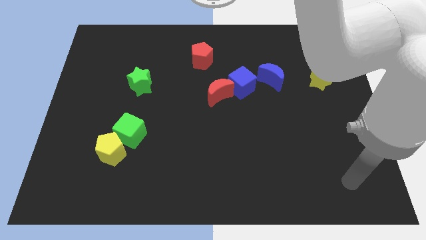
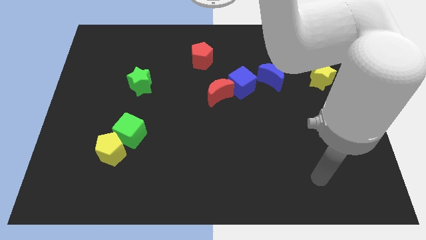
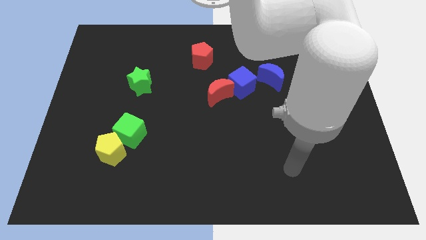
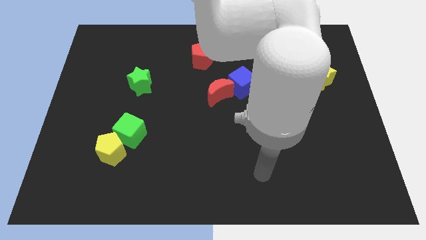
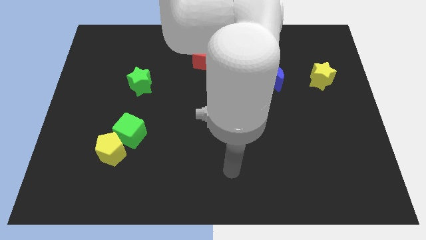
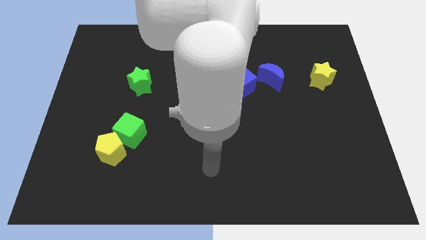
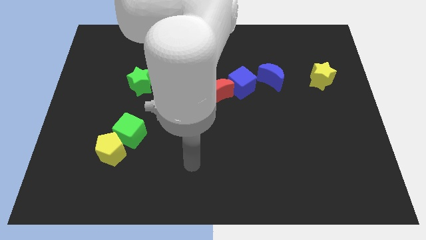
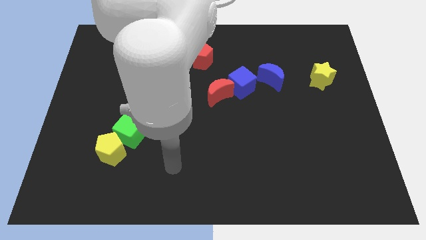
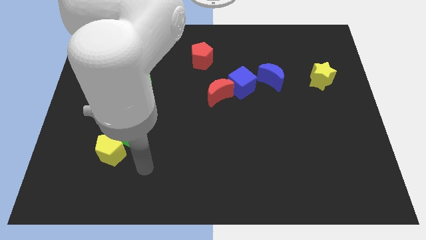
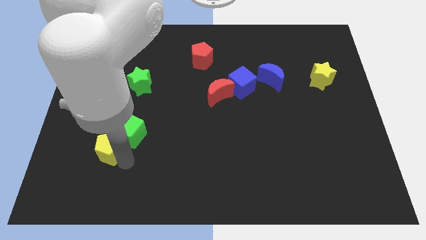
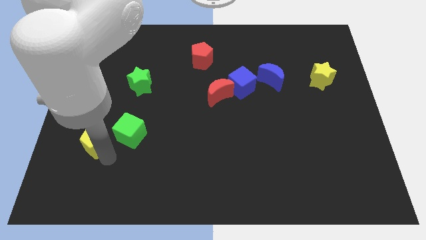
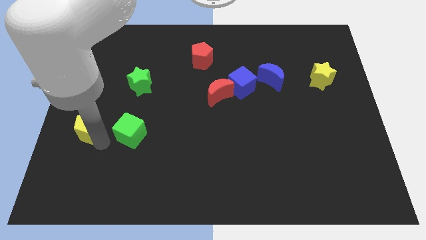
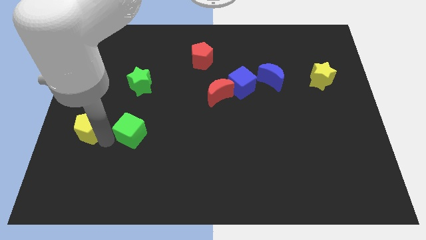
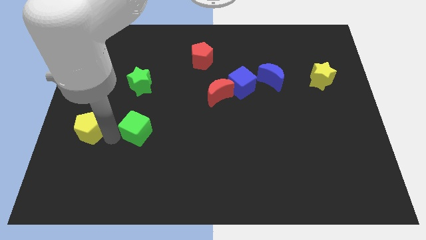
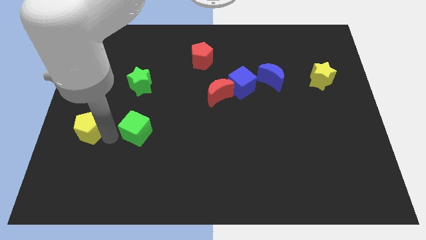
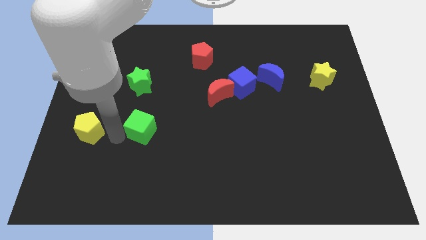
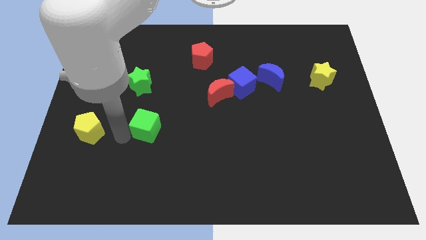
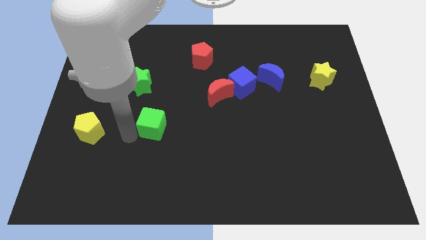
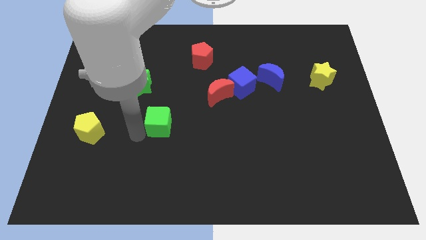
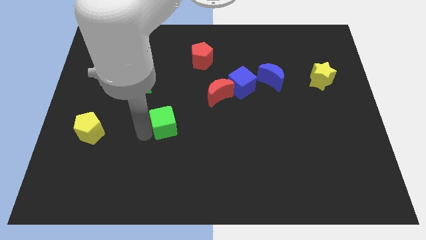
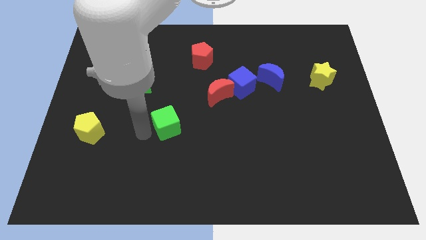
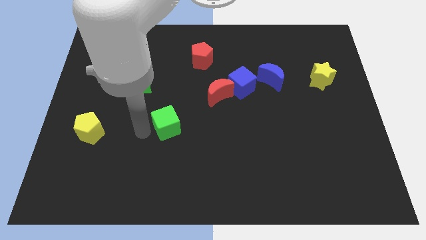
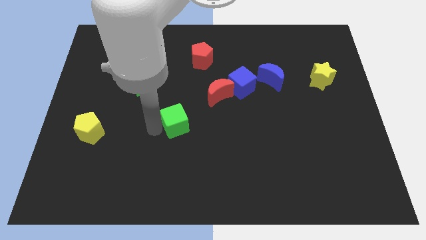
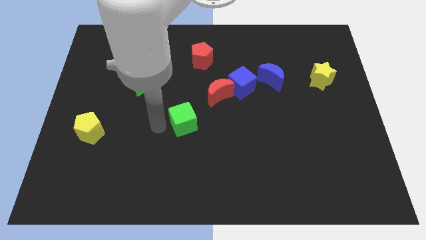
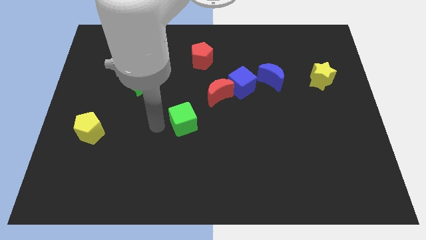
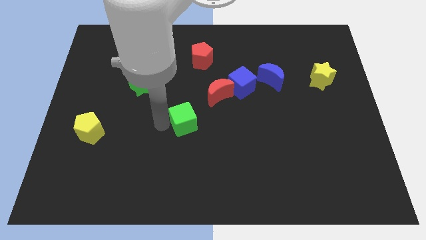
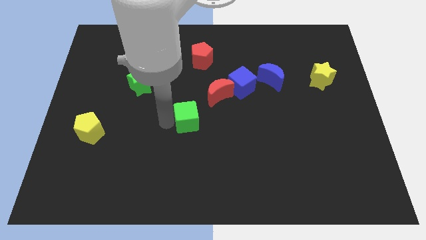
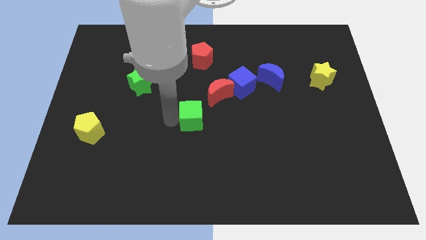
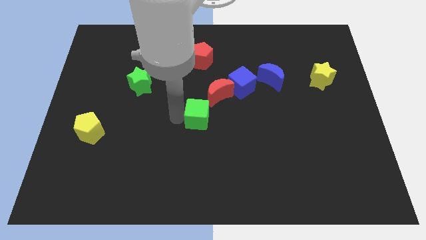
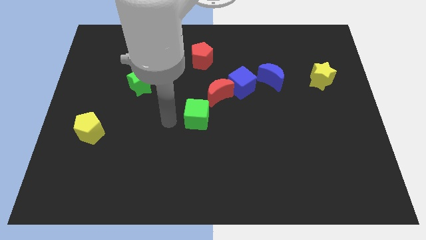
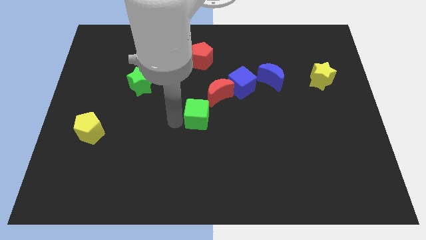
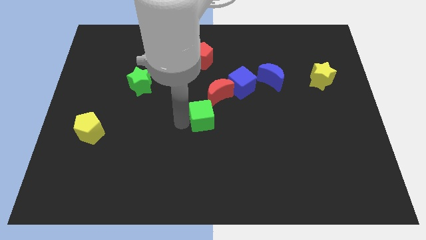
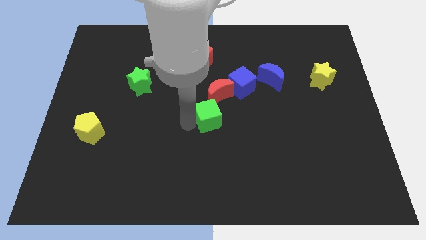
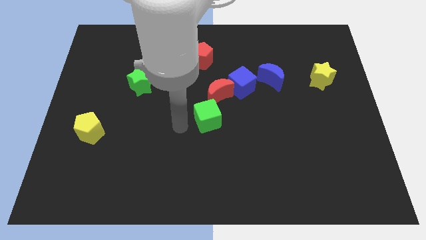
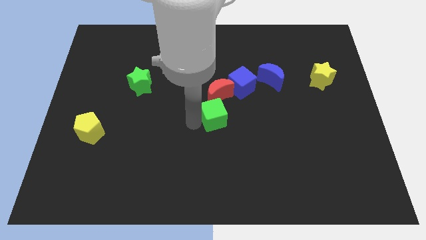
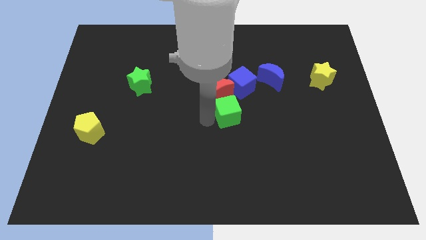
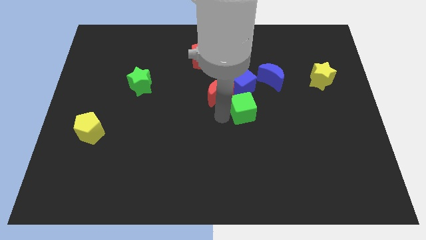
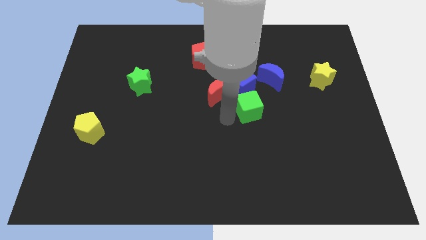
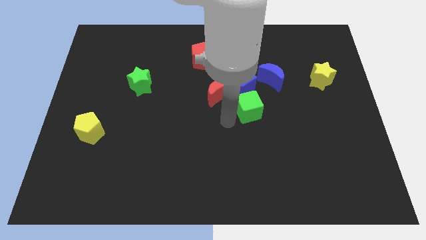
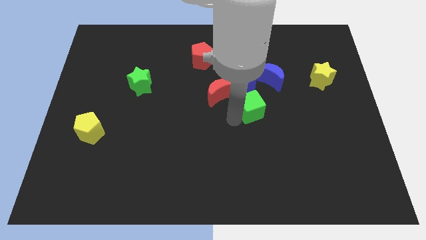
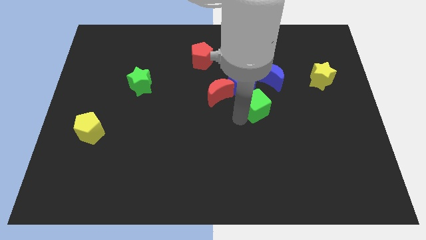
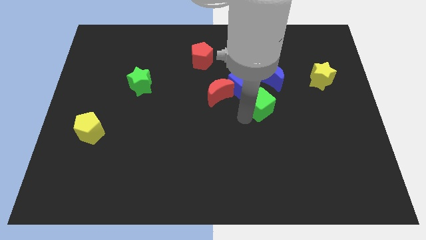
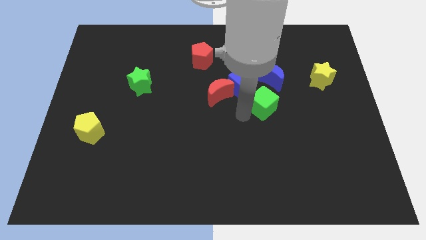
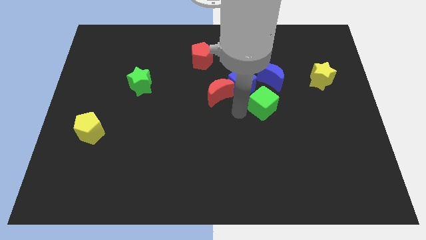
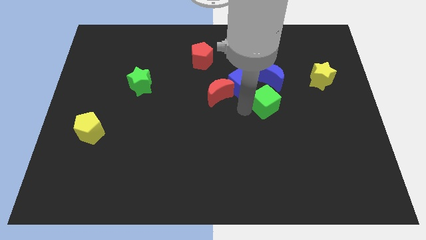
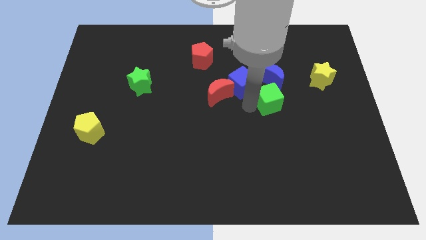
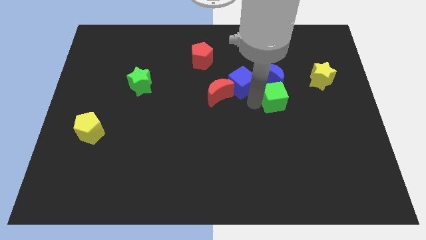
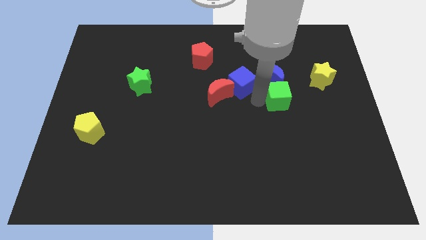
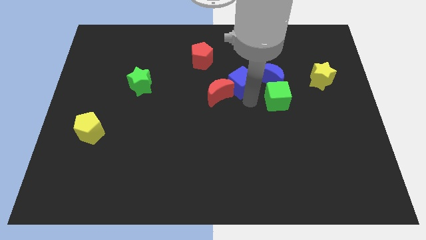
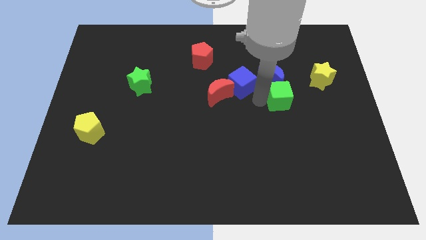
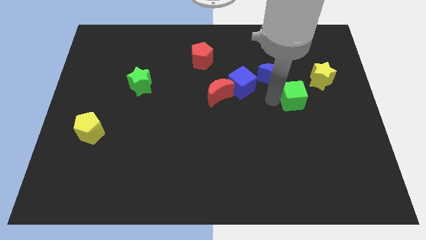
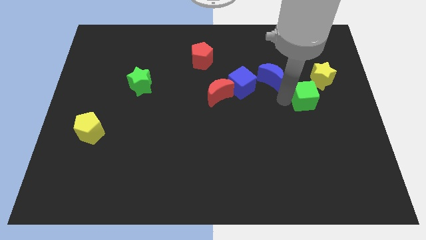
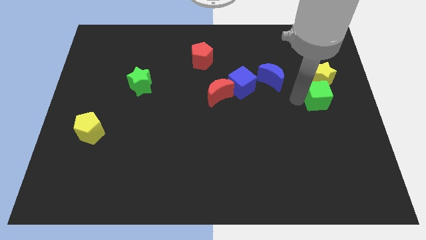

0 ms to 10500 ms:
put the green cube to the right side
